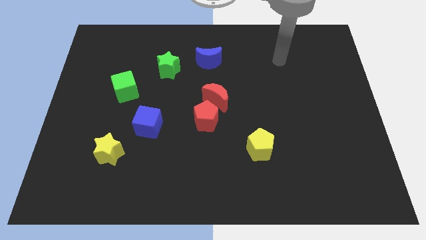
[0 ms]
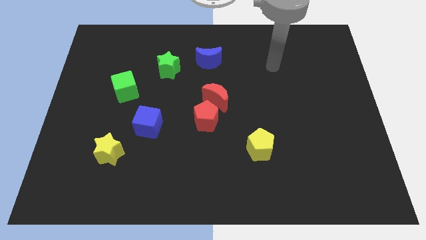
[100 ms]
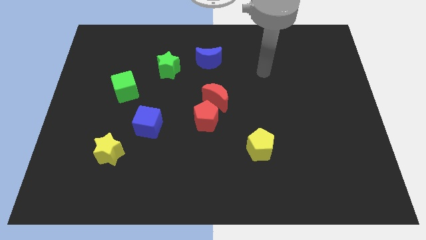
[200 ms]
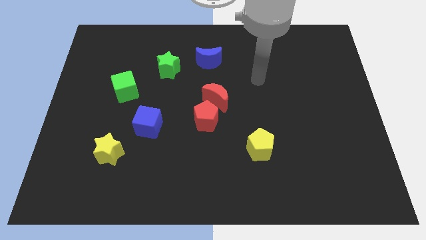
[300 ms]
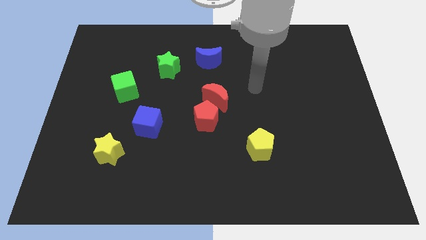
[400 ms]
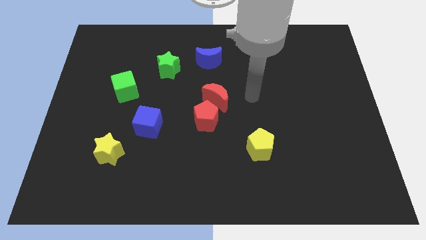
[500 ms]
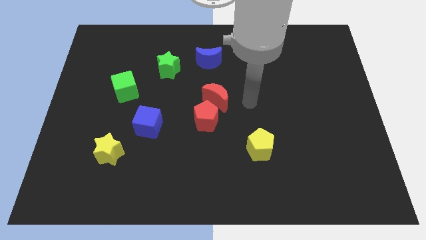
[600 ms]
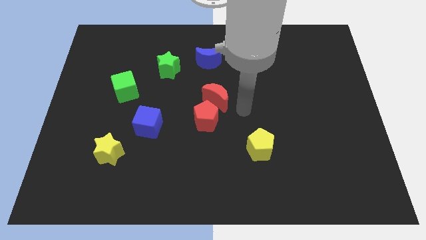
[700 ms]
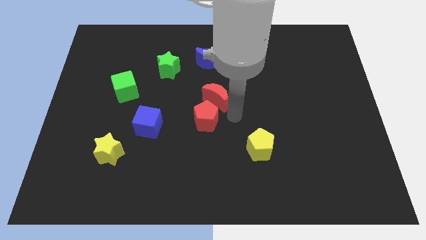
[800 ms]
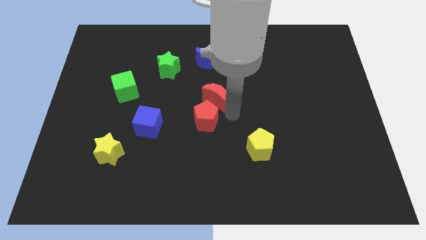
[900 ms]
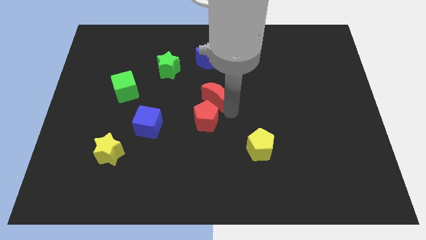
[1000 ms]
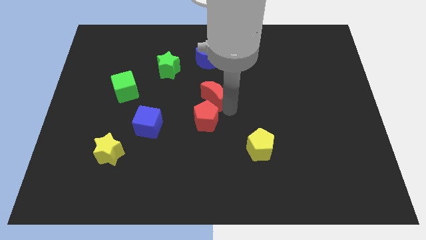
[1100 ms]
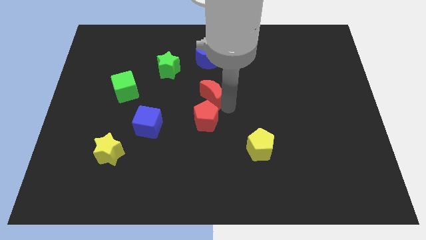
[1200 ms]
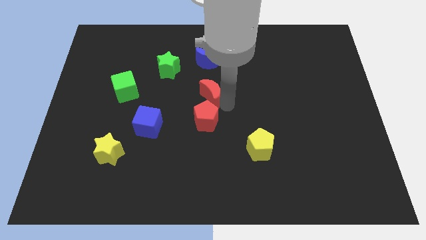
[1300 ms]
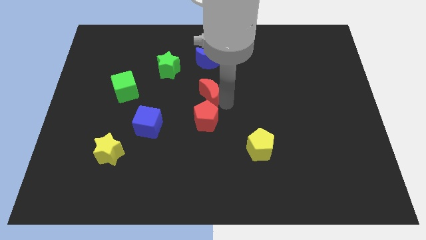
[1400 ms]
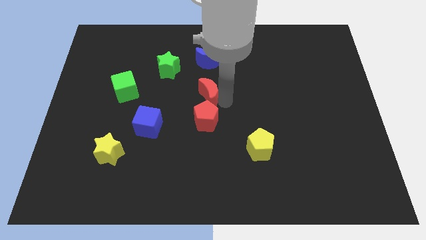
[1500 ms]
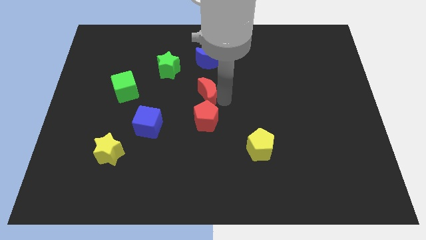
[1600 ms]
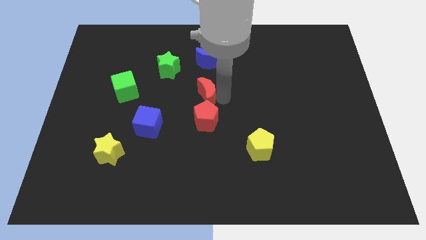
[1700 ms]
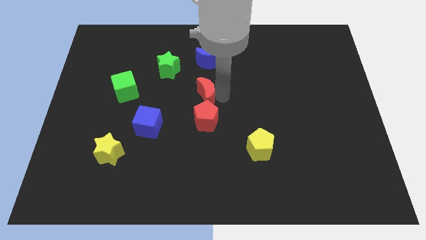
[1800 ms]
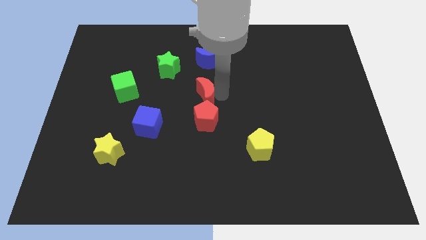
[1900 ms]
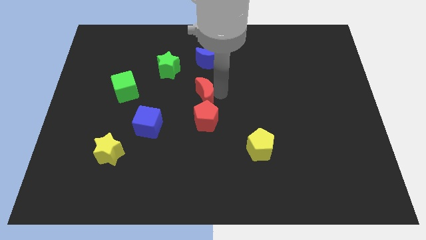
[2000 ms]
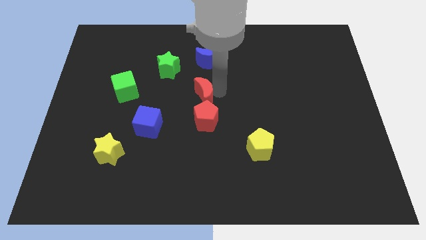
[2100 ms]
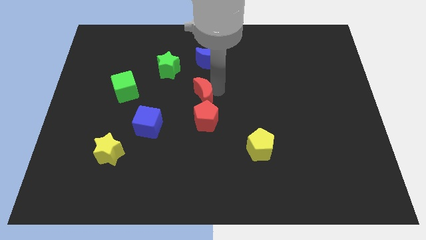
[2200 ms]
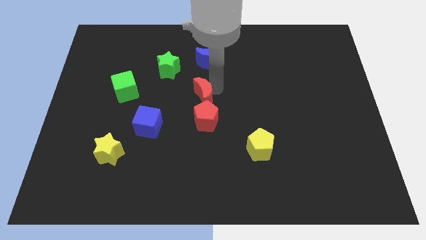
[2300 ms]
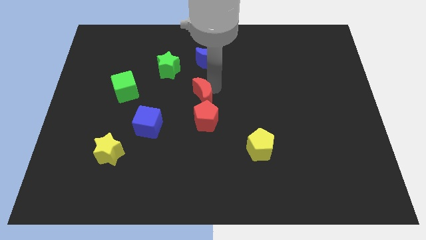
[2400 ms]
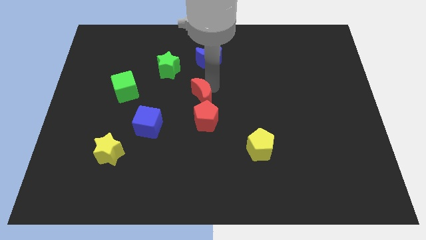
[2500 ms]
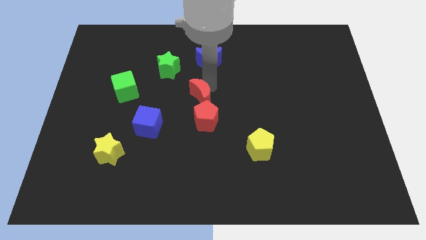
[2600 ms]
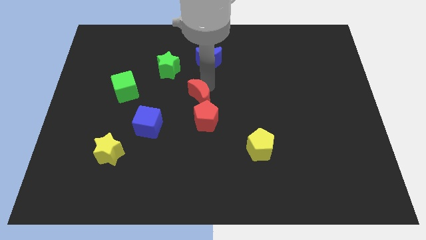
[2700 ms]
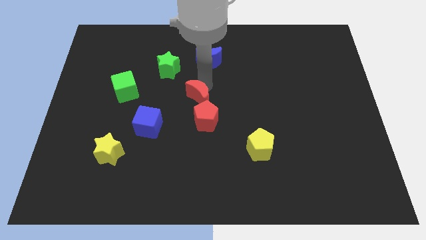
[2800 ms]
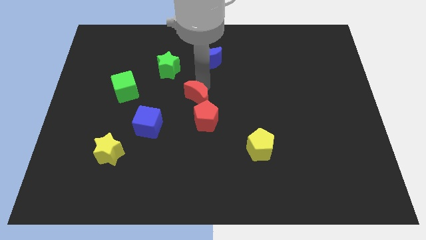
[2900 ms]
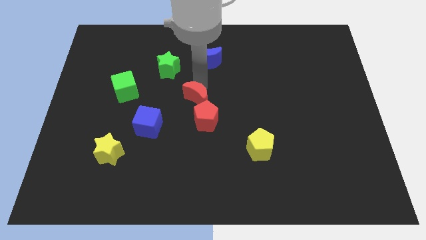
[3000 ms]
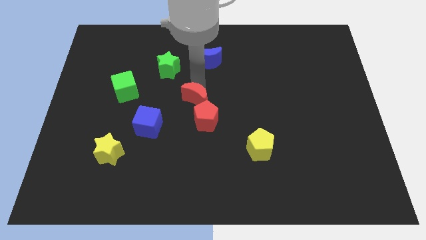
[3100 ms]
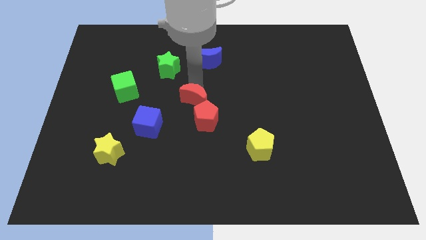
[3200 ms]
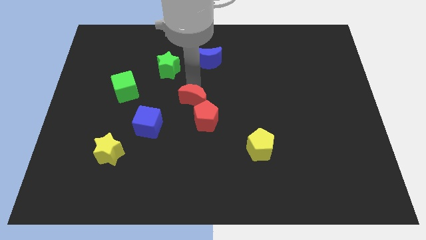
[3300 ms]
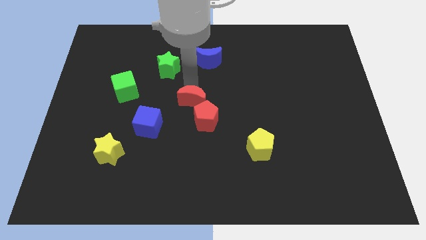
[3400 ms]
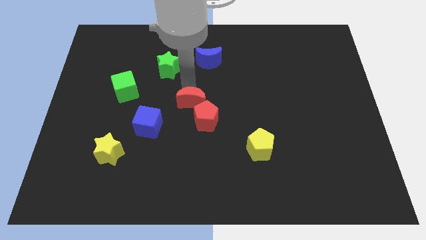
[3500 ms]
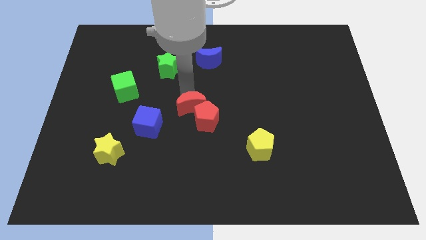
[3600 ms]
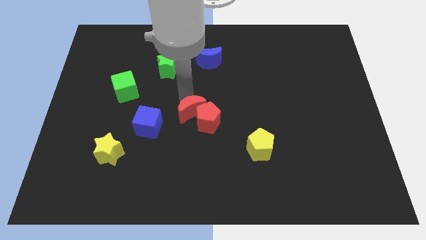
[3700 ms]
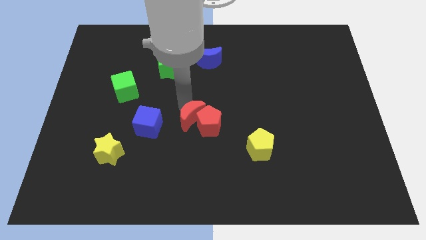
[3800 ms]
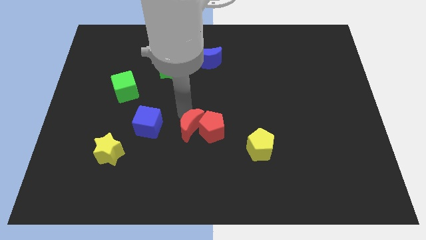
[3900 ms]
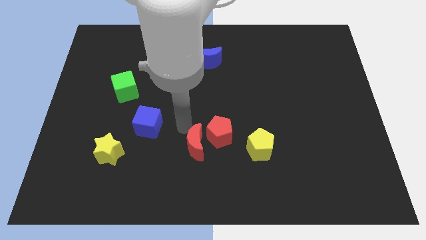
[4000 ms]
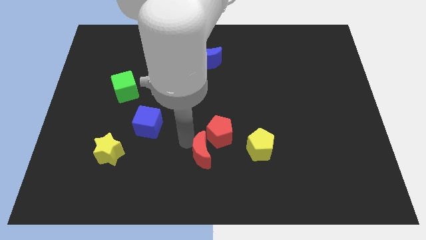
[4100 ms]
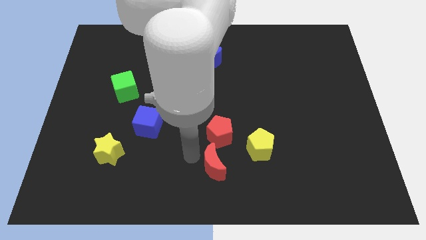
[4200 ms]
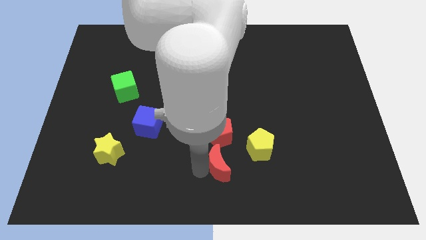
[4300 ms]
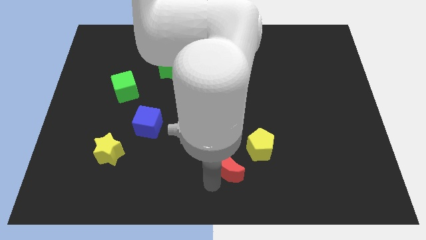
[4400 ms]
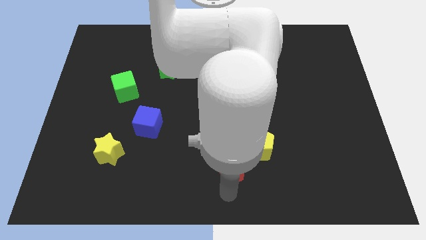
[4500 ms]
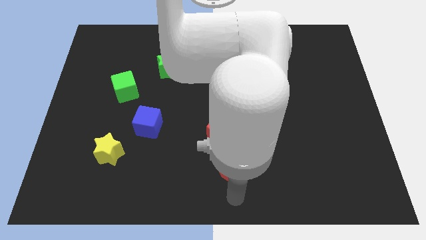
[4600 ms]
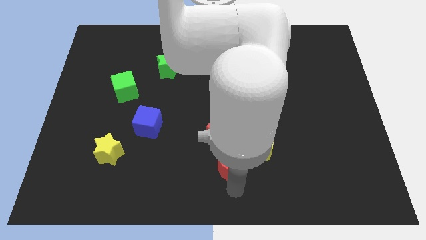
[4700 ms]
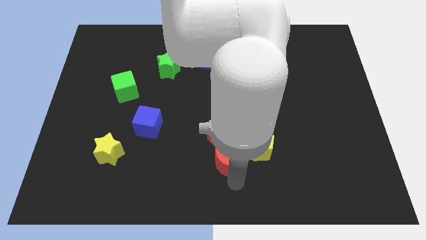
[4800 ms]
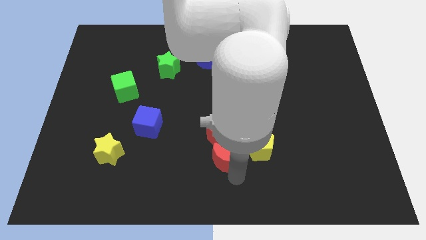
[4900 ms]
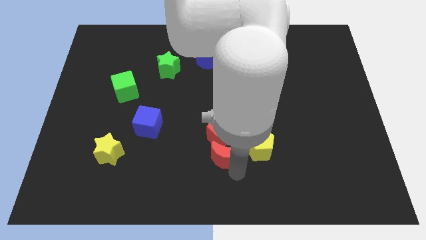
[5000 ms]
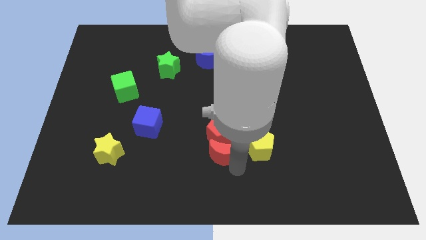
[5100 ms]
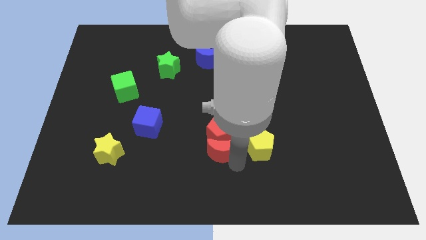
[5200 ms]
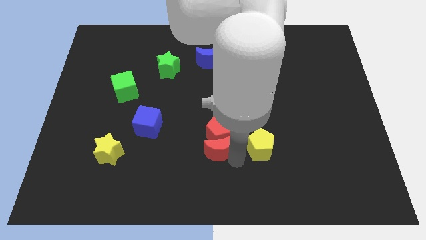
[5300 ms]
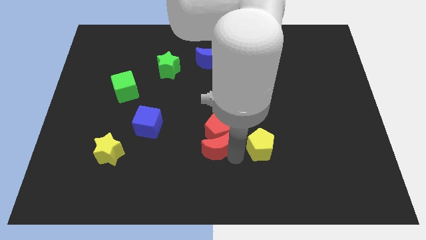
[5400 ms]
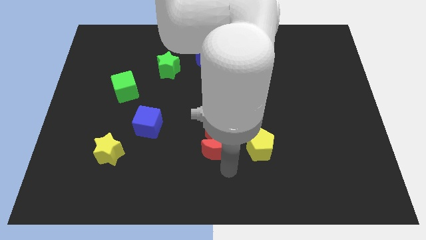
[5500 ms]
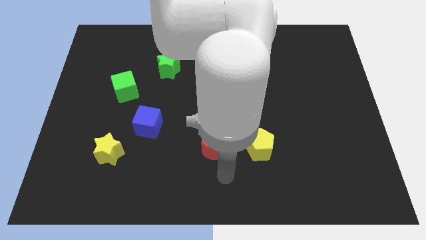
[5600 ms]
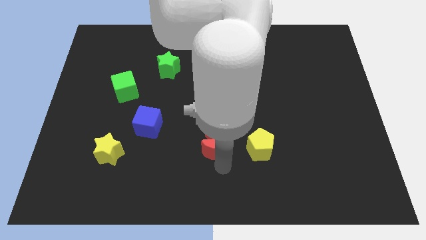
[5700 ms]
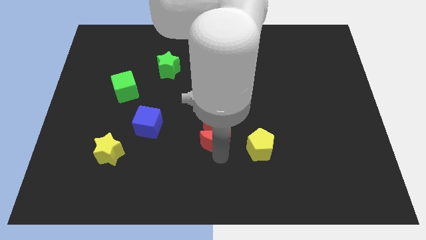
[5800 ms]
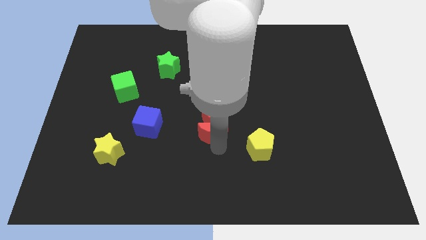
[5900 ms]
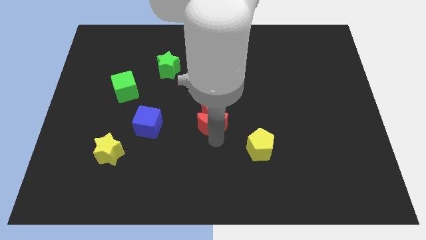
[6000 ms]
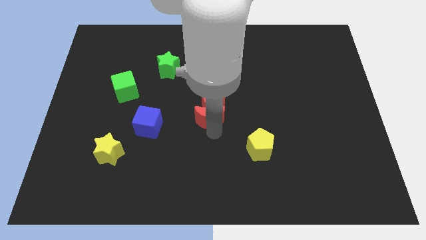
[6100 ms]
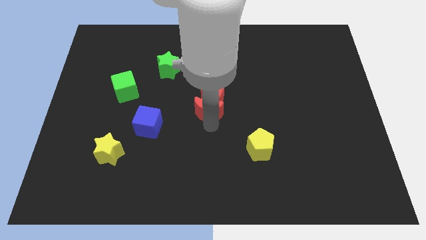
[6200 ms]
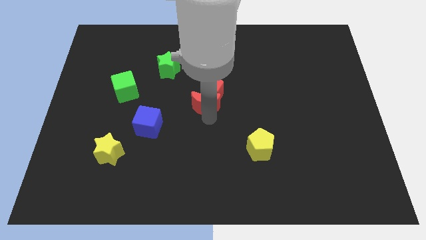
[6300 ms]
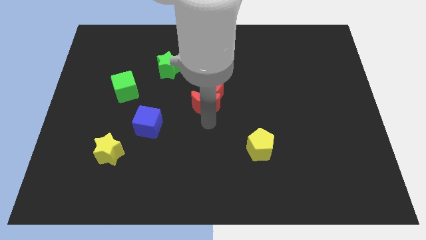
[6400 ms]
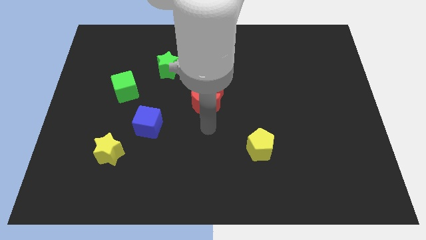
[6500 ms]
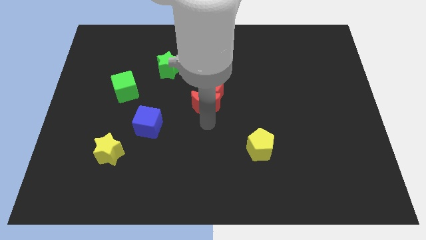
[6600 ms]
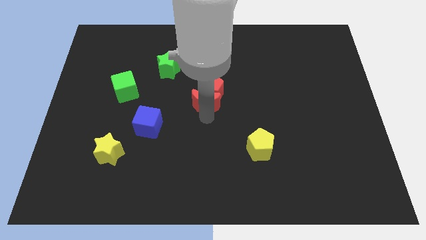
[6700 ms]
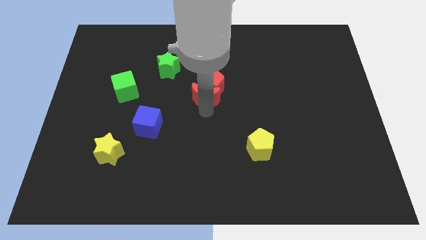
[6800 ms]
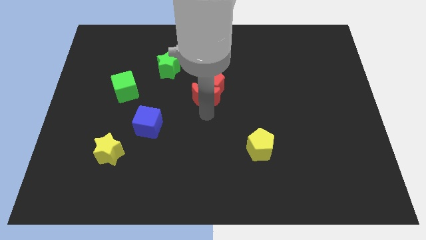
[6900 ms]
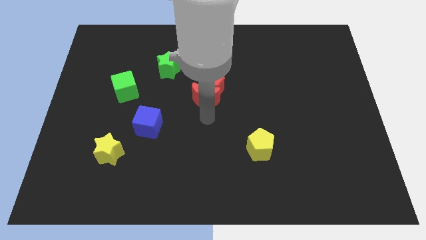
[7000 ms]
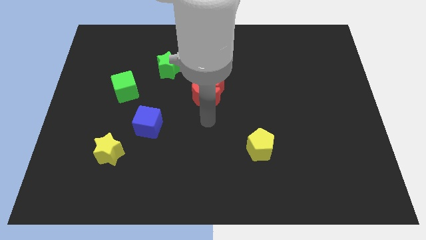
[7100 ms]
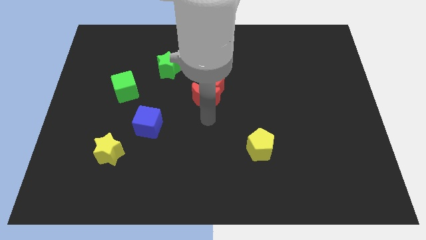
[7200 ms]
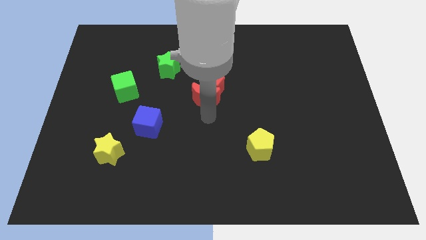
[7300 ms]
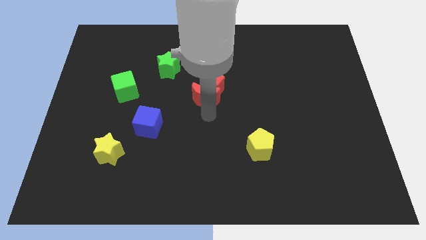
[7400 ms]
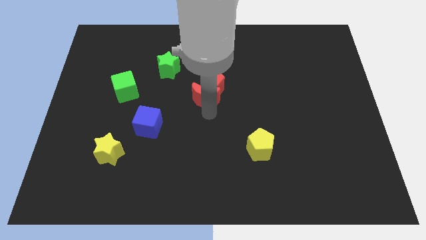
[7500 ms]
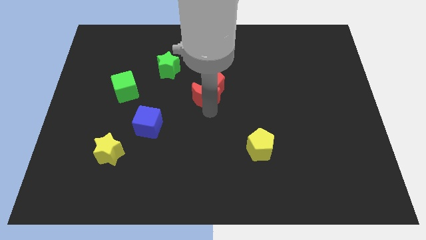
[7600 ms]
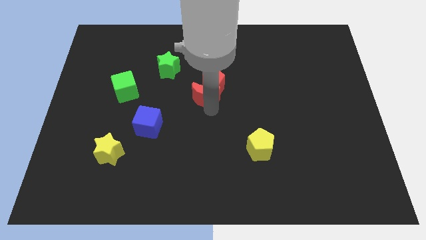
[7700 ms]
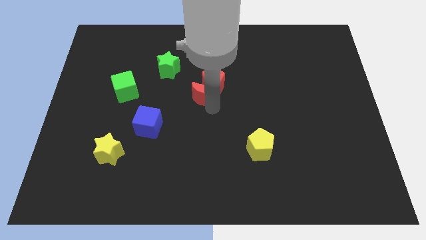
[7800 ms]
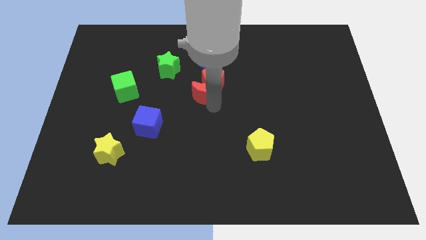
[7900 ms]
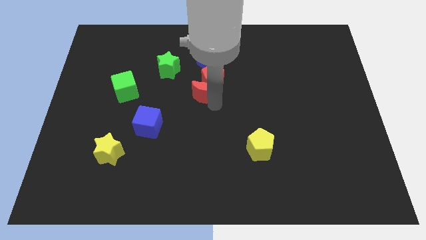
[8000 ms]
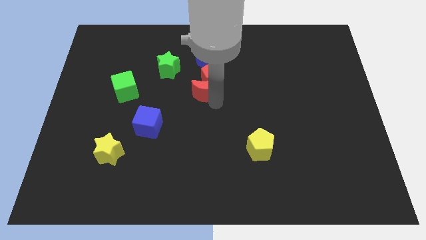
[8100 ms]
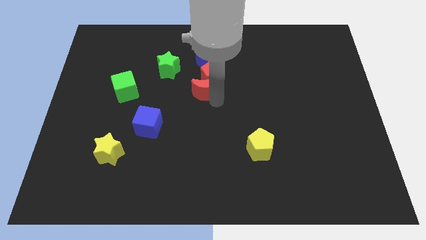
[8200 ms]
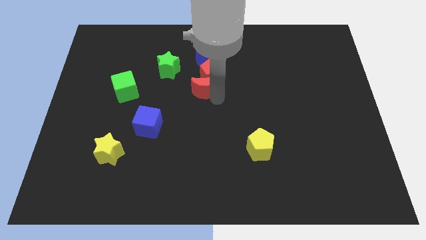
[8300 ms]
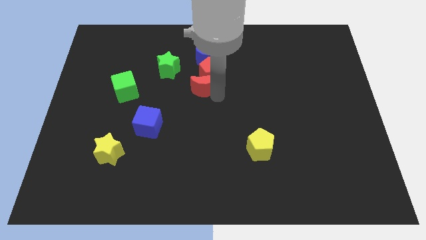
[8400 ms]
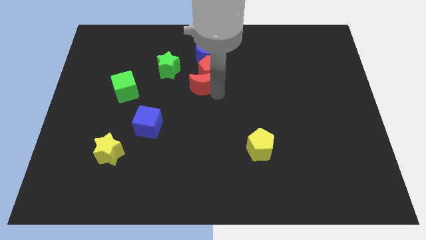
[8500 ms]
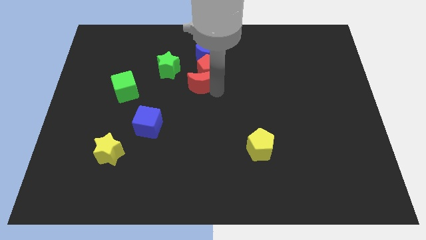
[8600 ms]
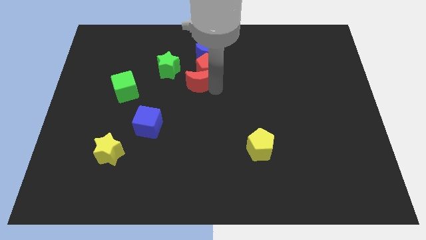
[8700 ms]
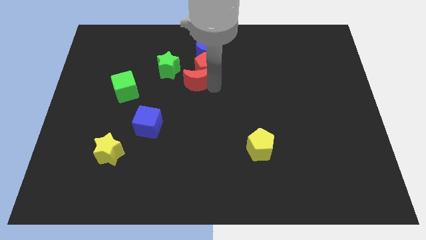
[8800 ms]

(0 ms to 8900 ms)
slightly move the red moon upwards and left
